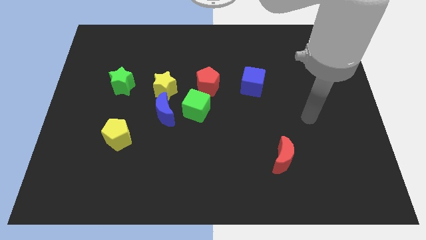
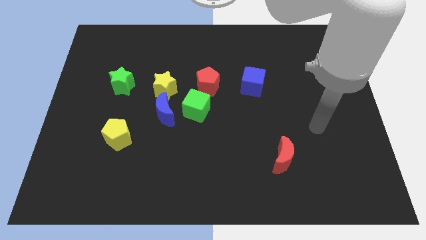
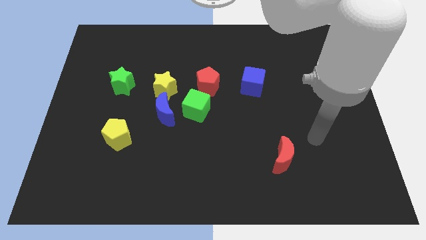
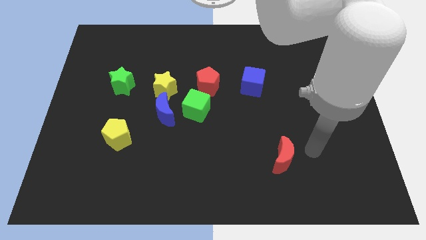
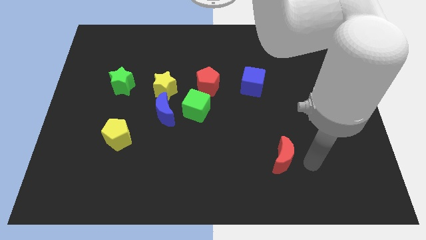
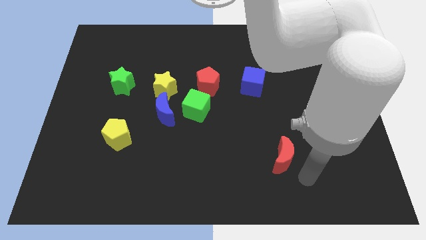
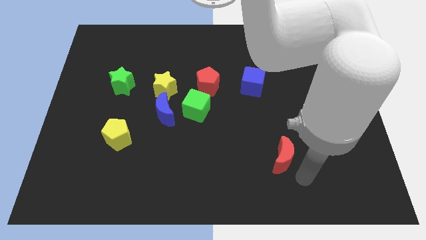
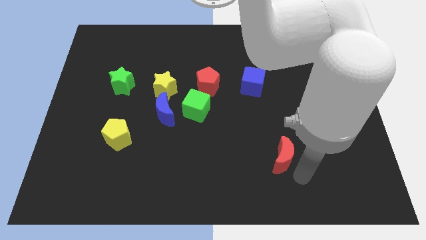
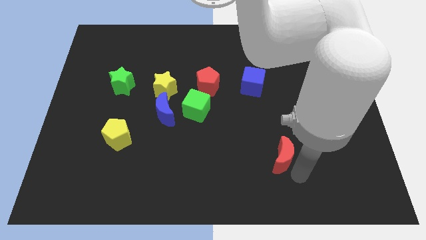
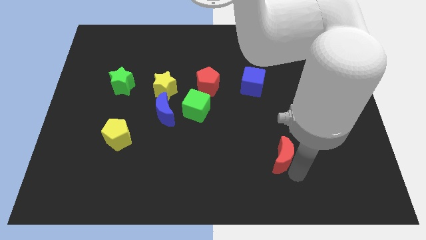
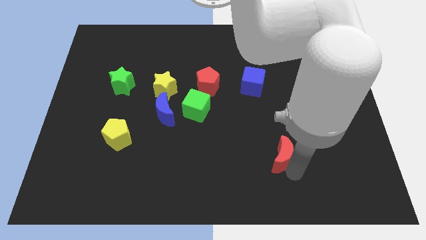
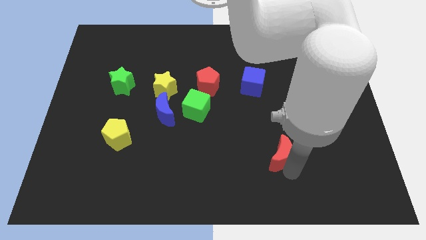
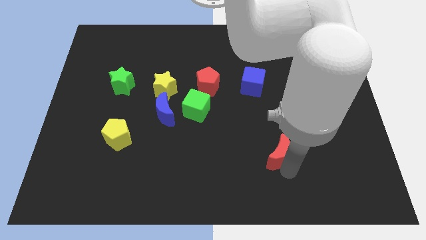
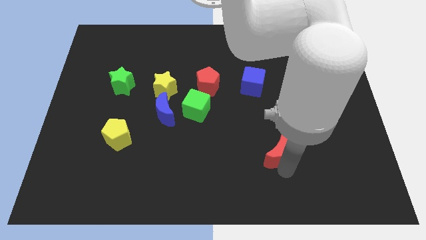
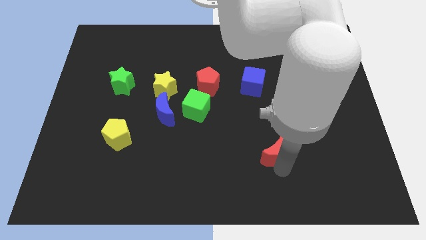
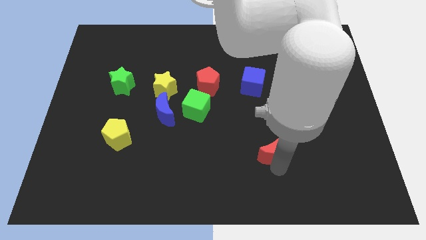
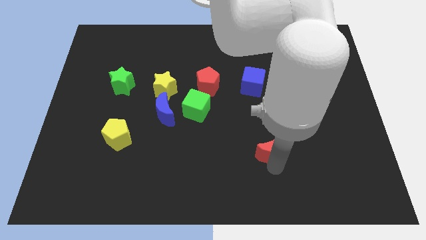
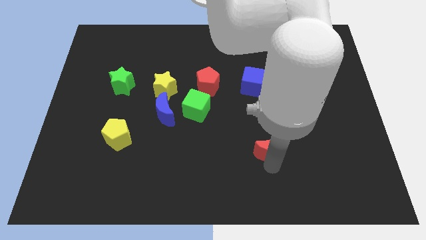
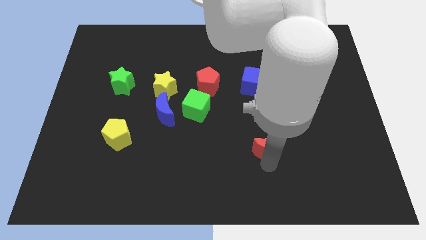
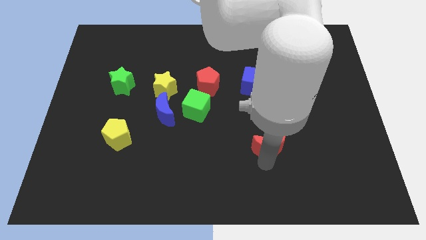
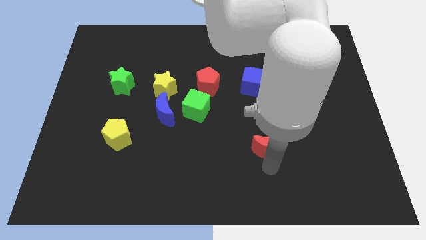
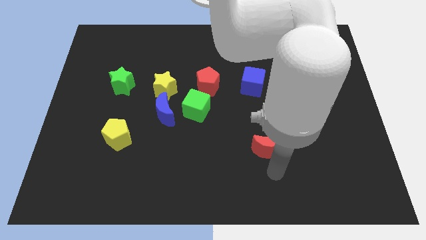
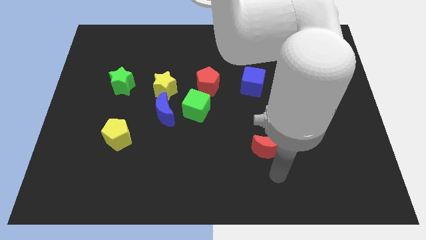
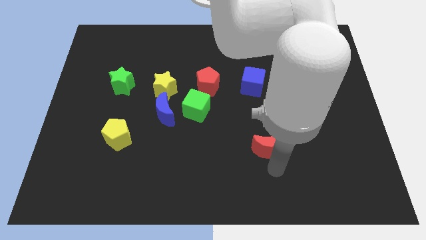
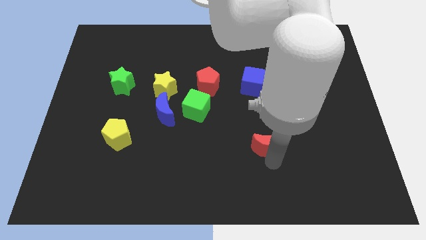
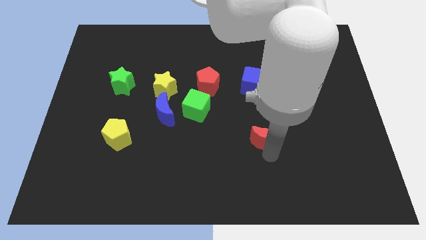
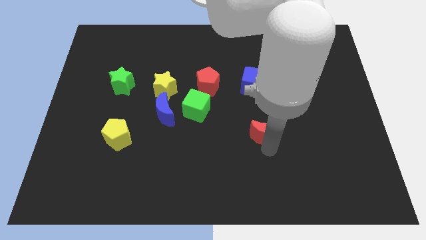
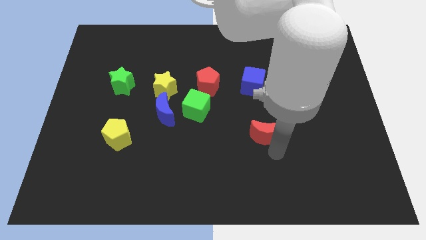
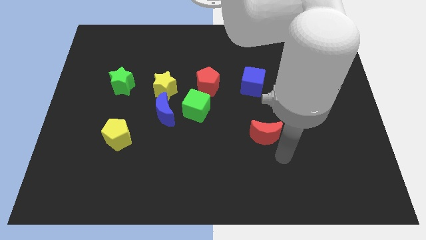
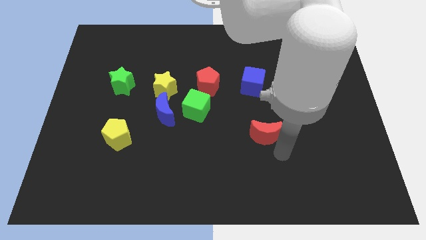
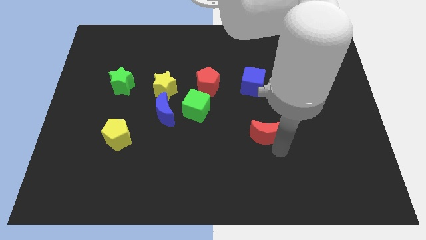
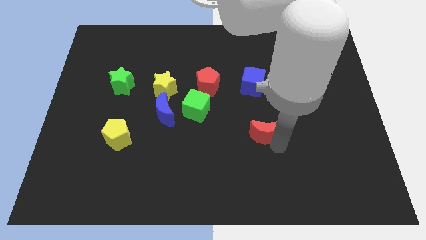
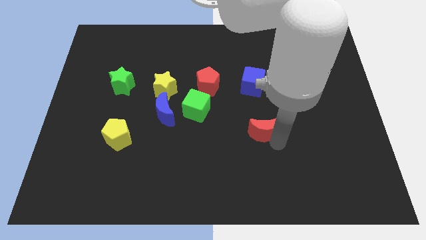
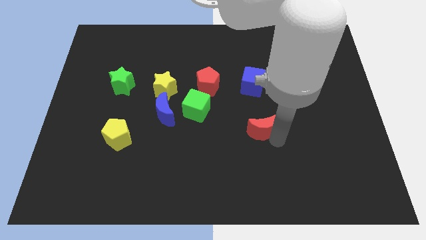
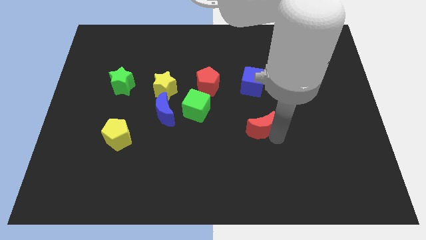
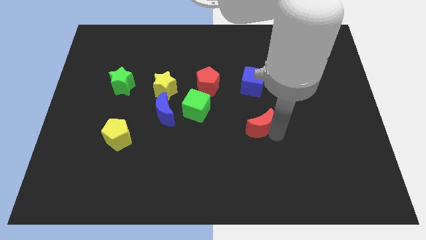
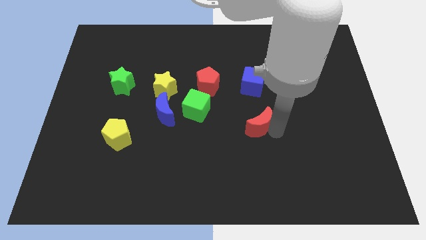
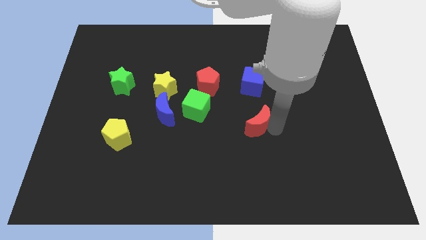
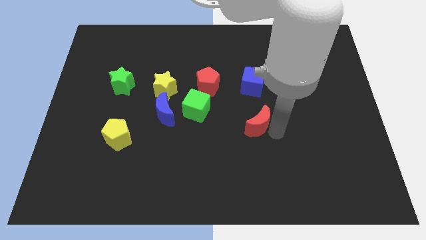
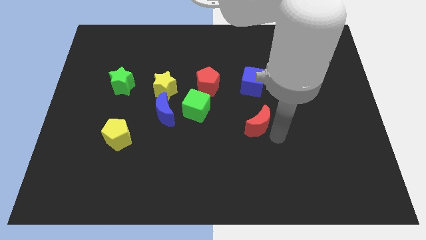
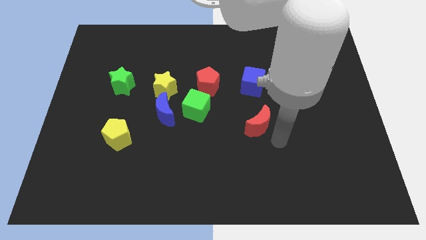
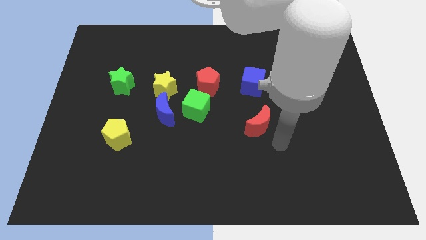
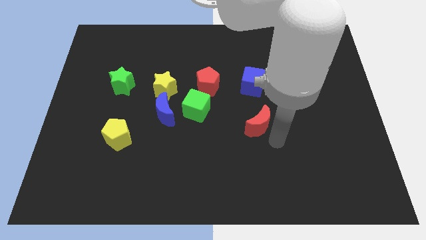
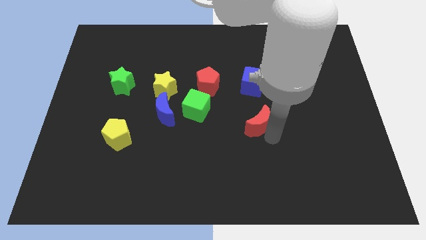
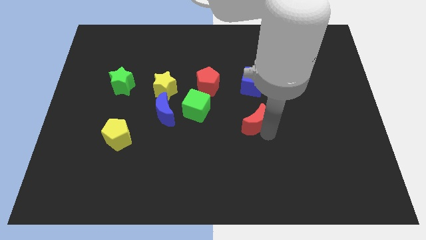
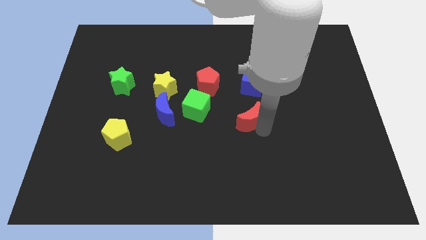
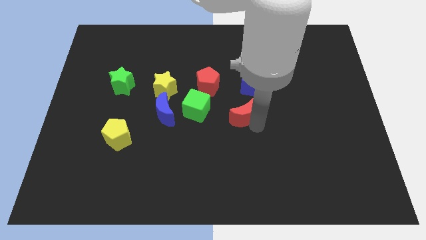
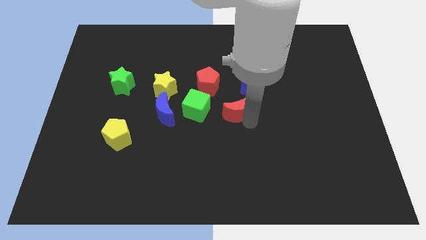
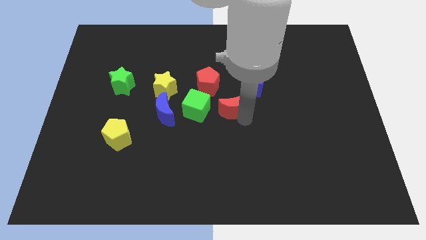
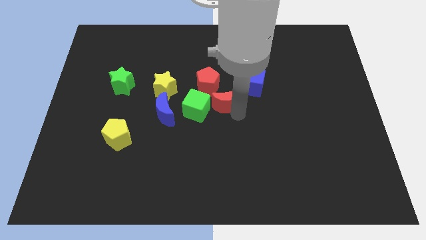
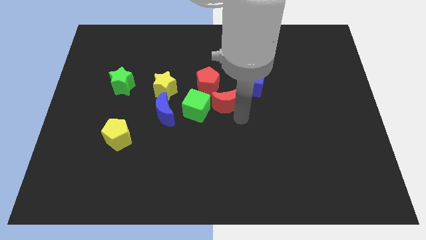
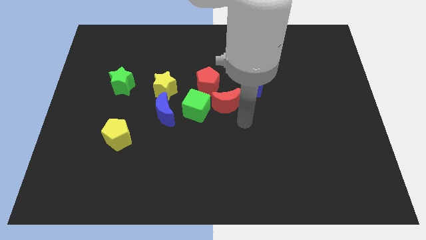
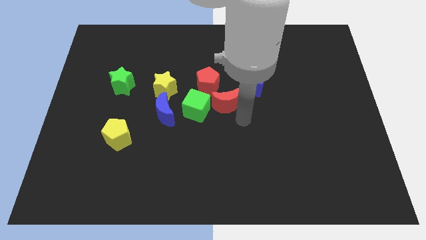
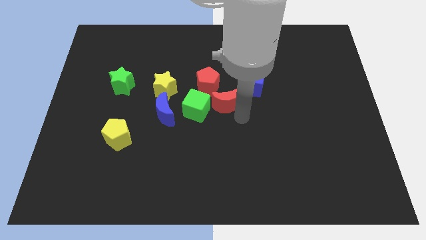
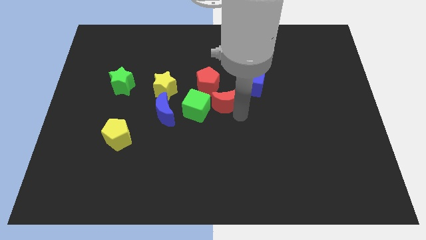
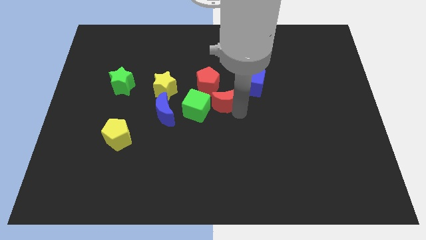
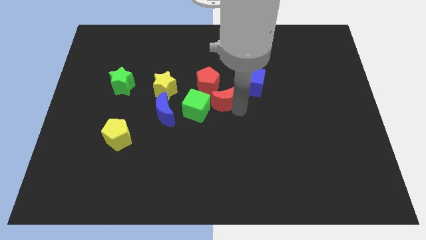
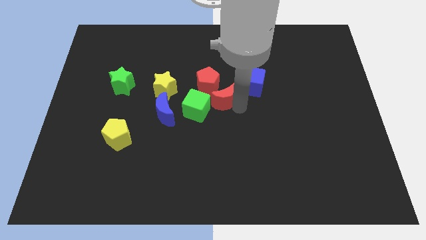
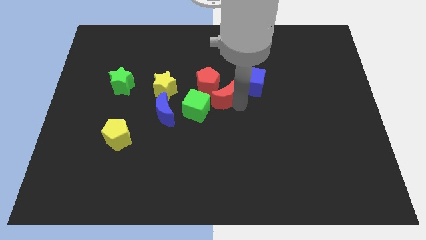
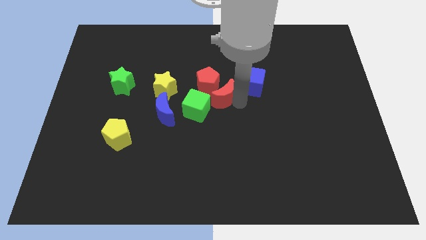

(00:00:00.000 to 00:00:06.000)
slide the red moon towards the red pentagon

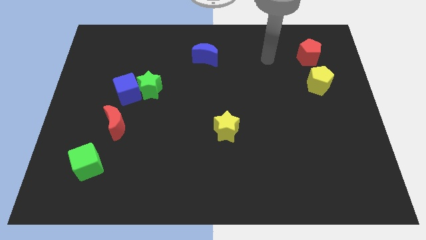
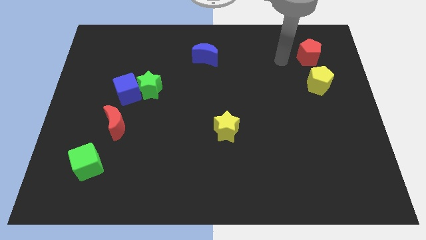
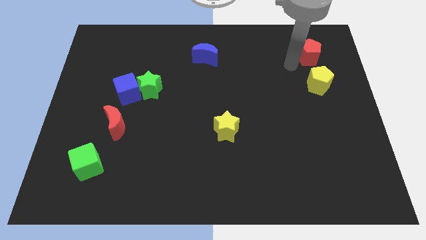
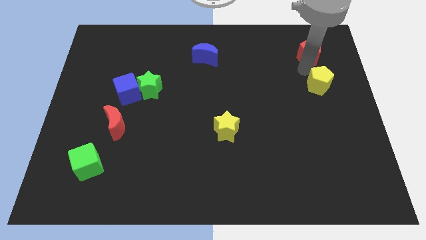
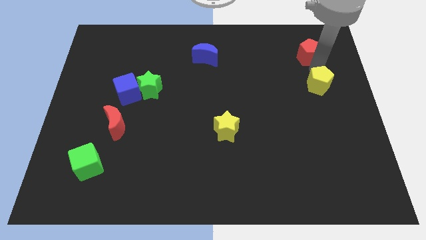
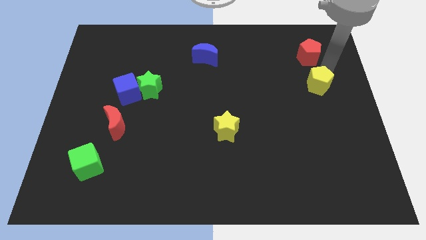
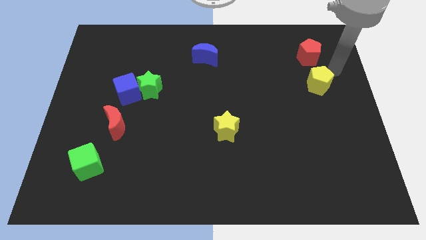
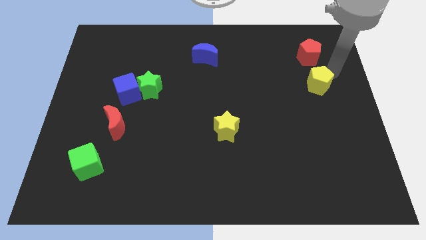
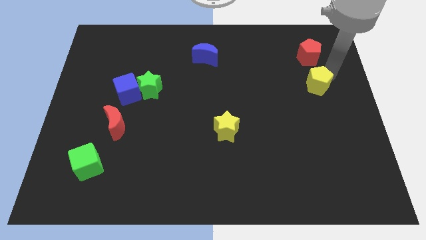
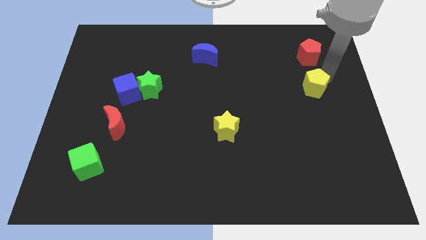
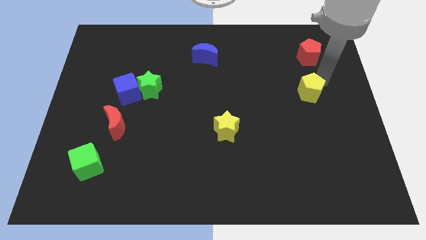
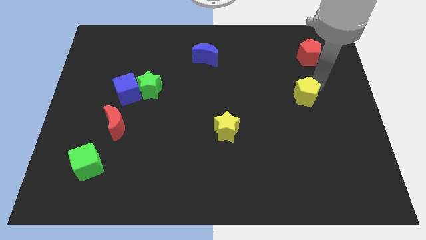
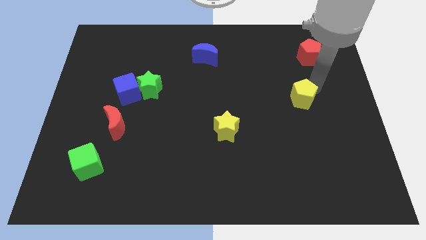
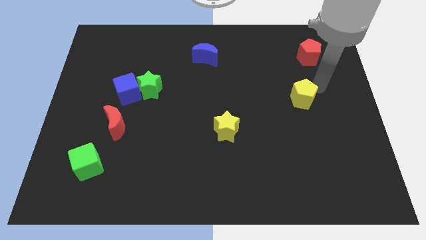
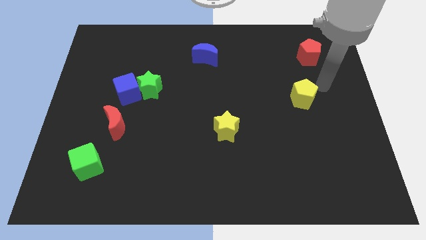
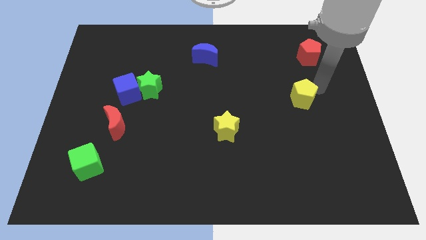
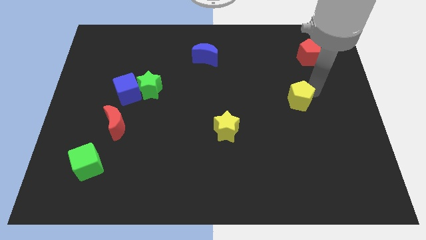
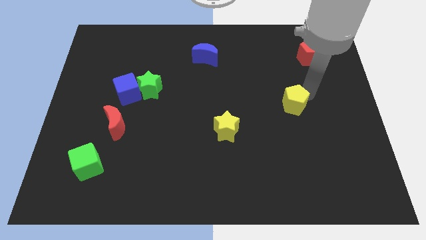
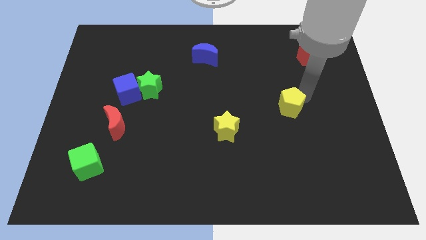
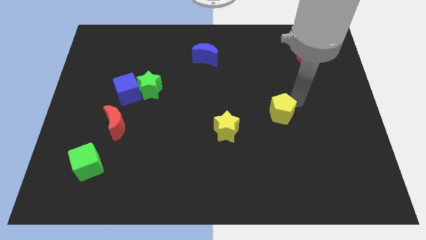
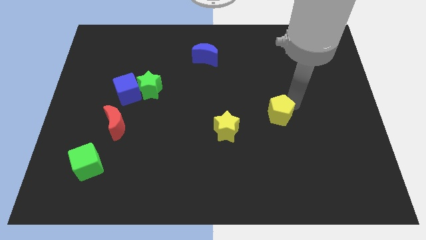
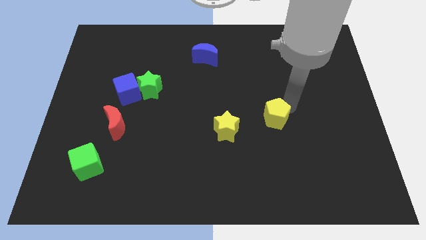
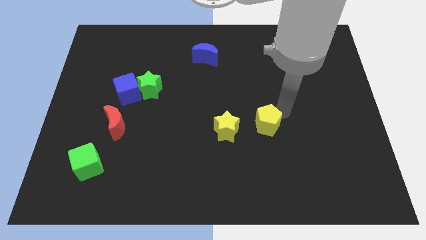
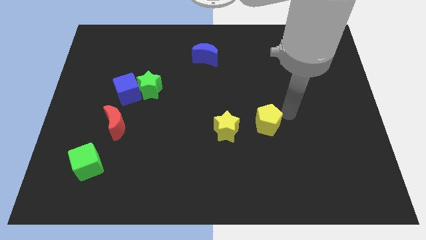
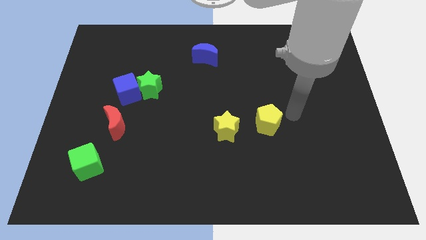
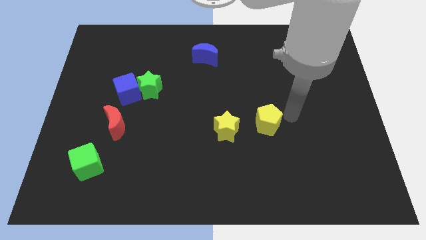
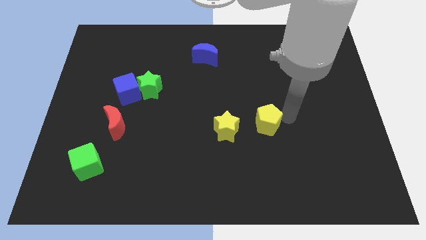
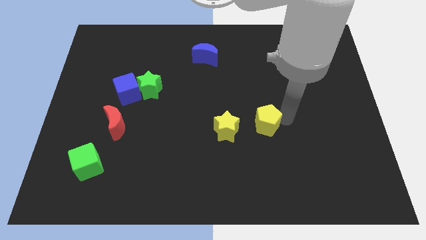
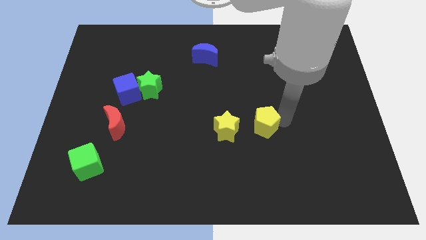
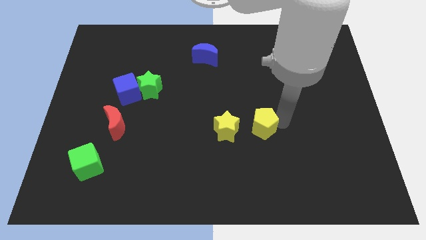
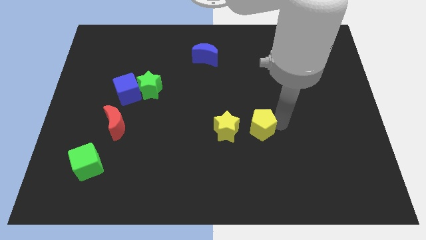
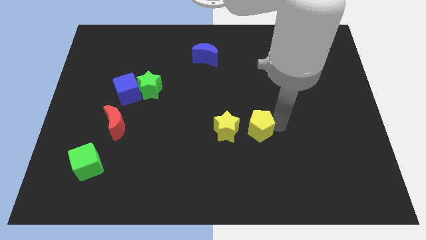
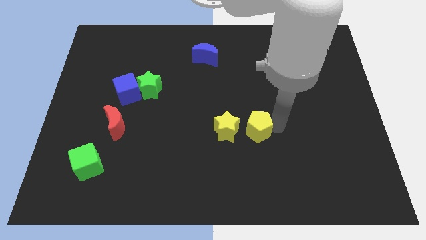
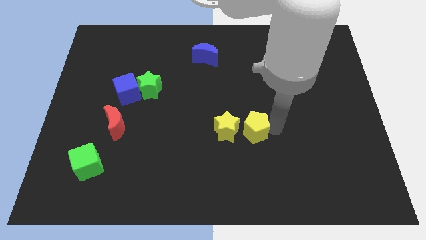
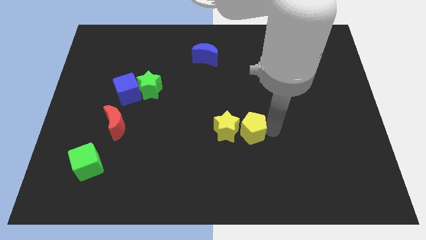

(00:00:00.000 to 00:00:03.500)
move the yellow pentagon next to the yellow star
